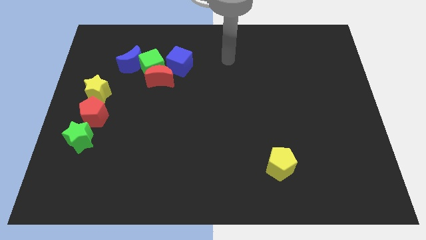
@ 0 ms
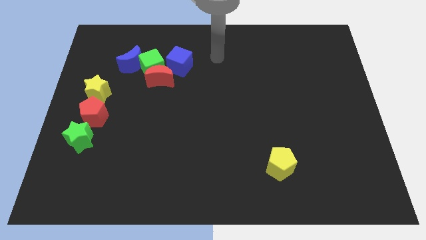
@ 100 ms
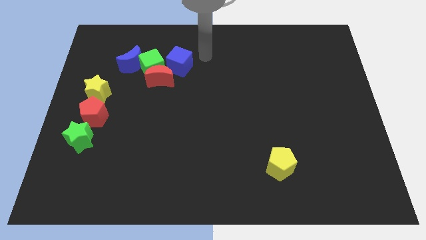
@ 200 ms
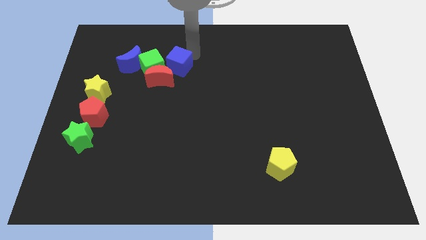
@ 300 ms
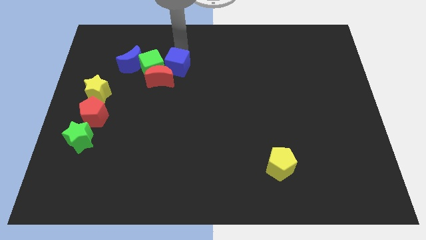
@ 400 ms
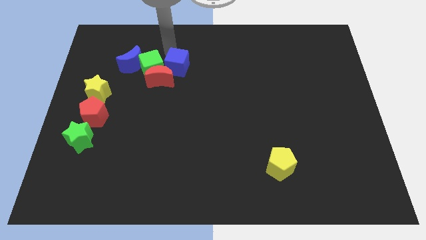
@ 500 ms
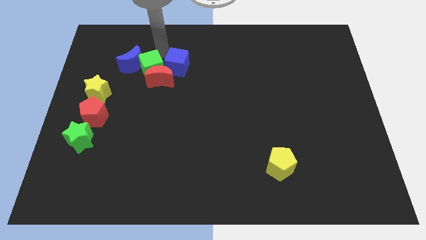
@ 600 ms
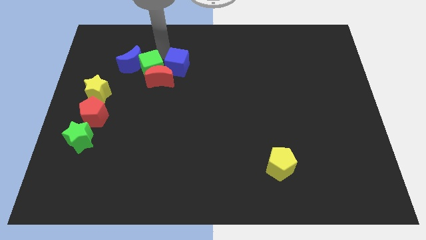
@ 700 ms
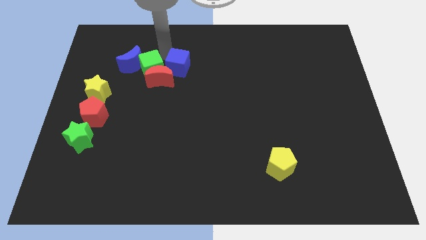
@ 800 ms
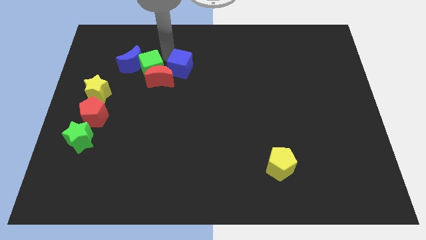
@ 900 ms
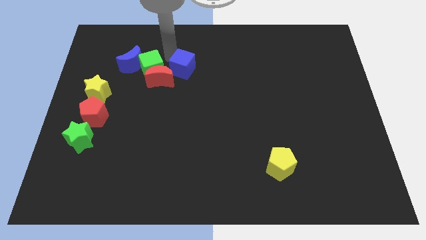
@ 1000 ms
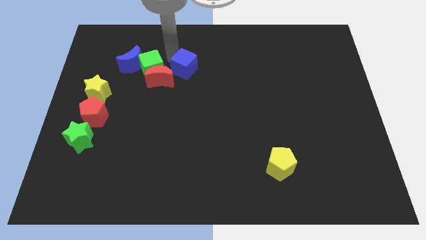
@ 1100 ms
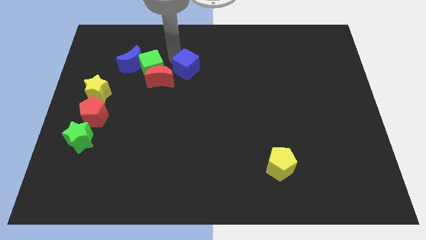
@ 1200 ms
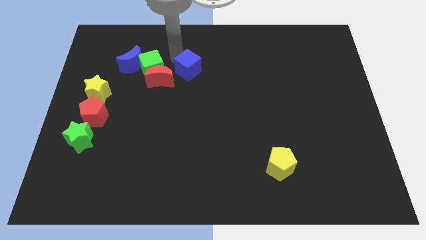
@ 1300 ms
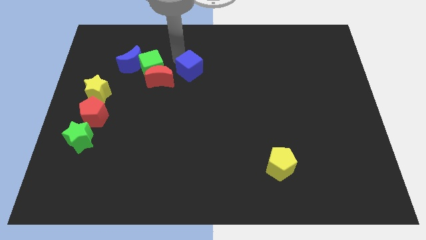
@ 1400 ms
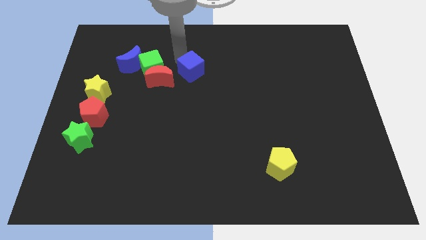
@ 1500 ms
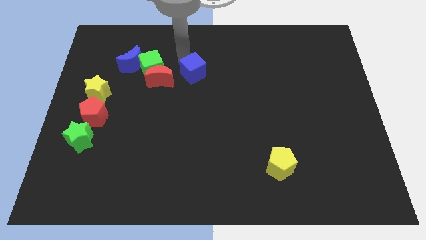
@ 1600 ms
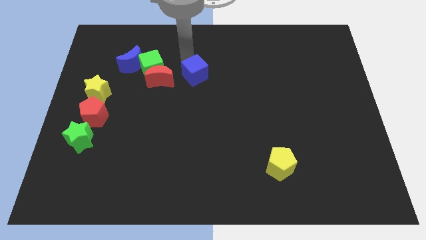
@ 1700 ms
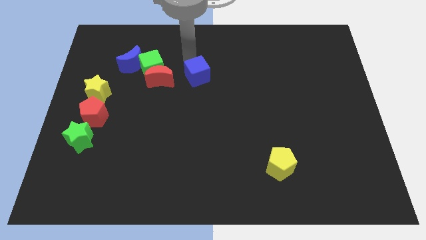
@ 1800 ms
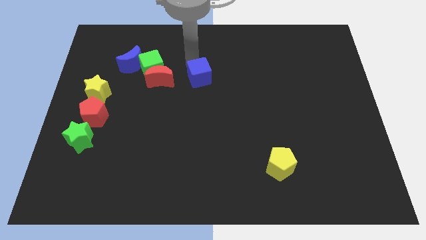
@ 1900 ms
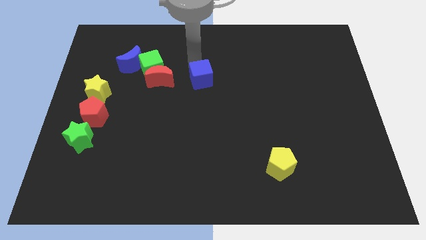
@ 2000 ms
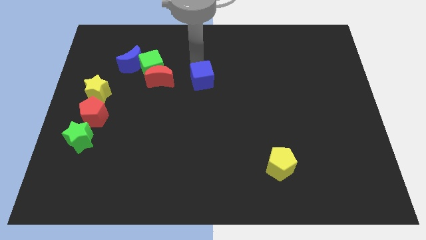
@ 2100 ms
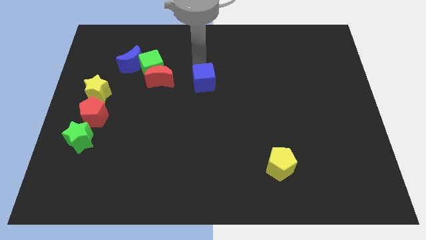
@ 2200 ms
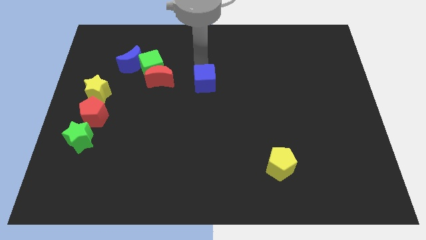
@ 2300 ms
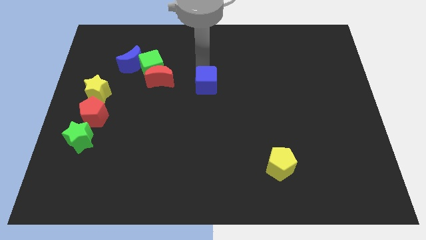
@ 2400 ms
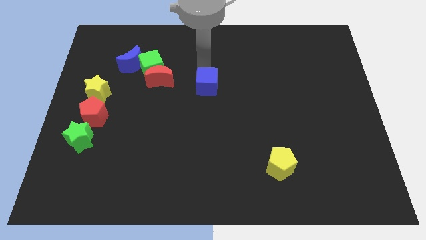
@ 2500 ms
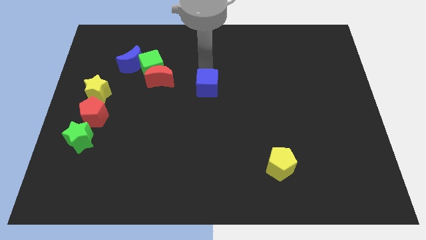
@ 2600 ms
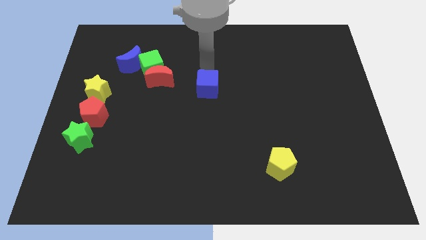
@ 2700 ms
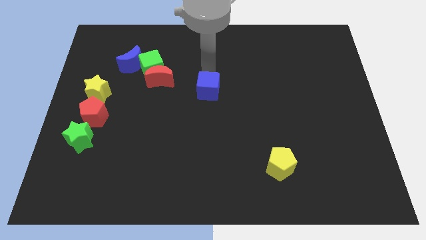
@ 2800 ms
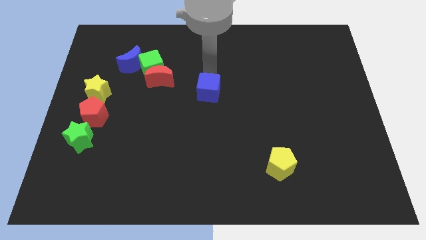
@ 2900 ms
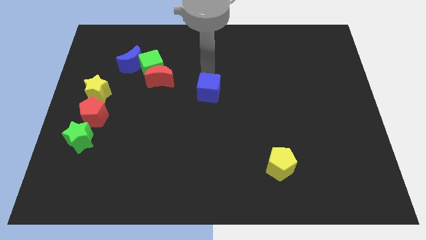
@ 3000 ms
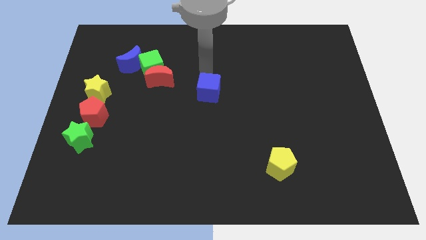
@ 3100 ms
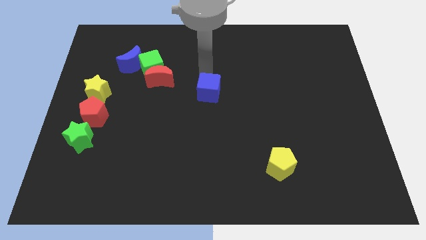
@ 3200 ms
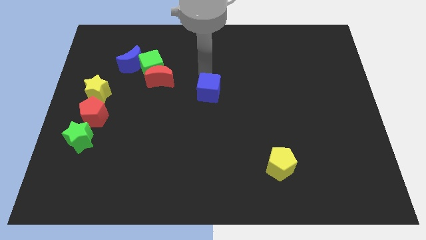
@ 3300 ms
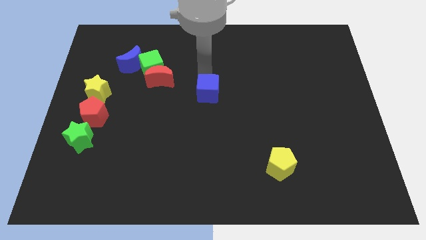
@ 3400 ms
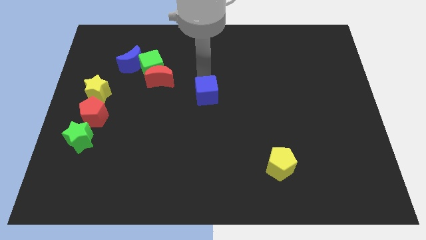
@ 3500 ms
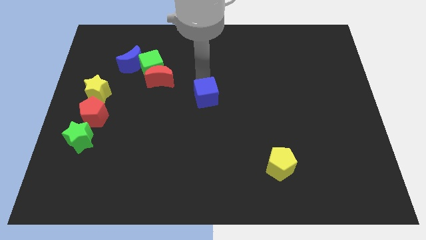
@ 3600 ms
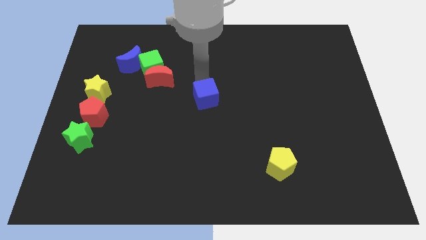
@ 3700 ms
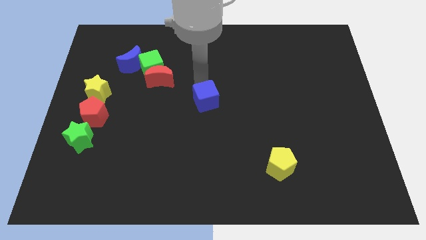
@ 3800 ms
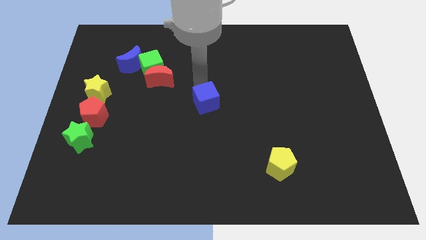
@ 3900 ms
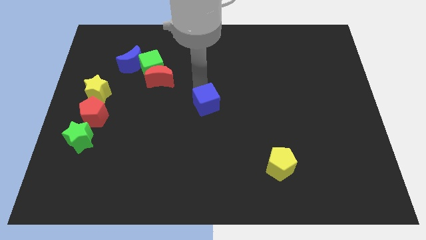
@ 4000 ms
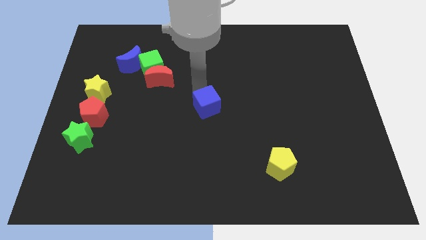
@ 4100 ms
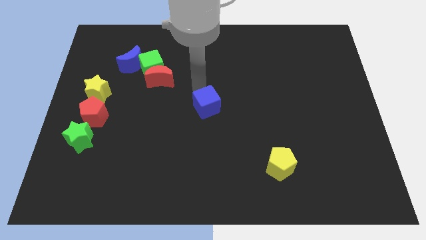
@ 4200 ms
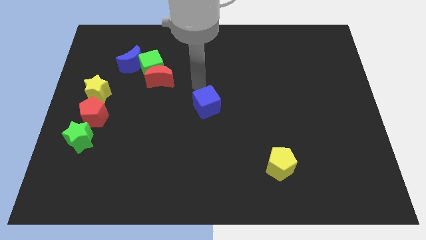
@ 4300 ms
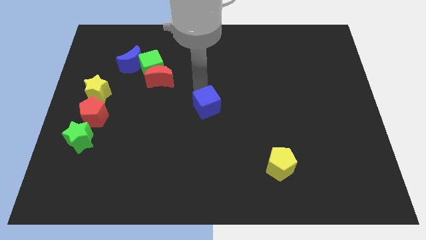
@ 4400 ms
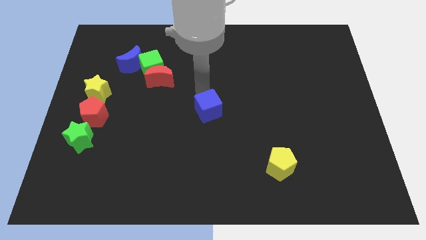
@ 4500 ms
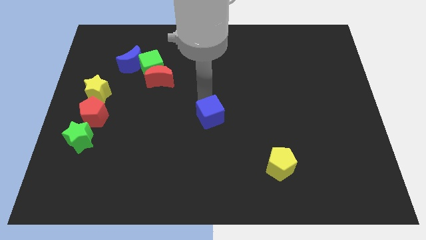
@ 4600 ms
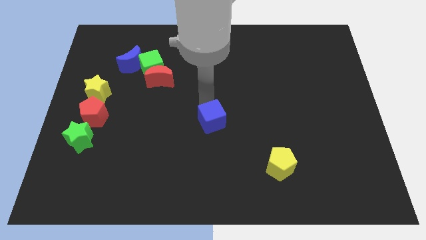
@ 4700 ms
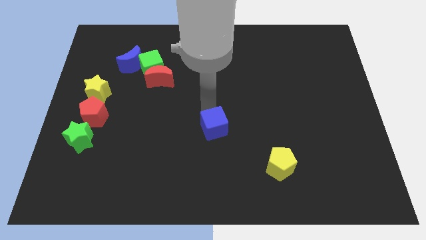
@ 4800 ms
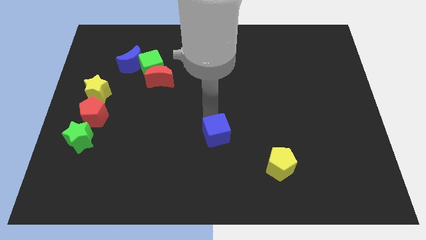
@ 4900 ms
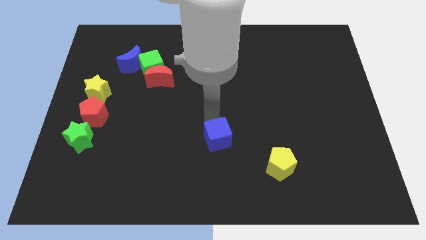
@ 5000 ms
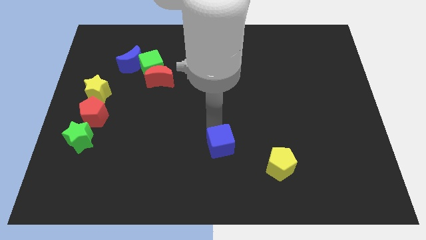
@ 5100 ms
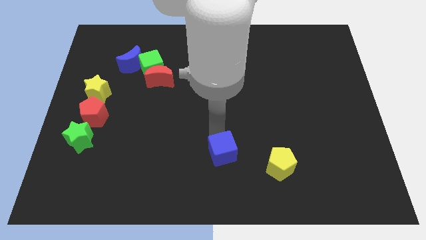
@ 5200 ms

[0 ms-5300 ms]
put the blue cube just left of the yellow pentagon

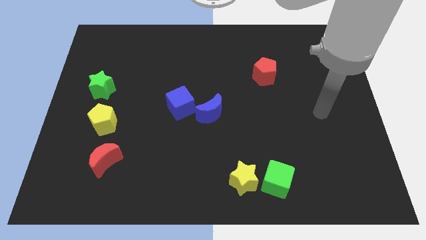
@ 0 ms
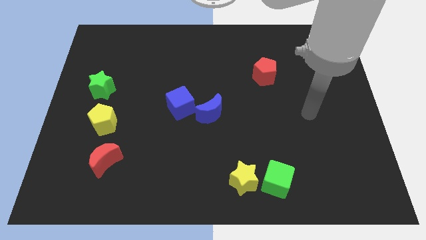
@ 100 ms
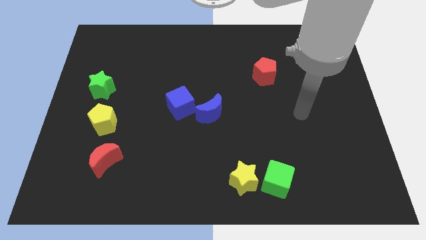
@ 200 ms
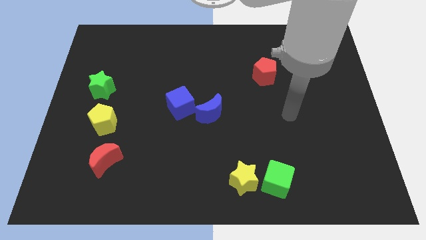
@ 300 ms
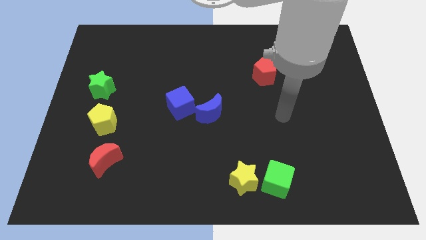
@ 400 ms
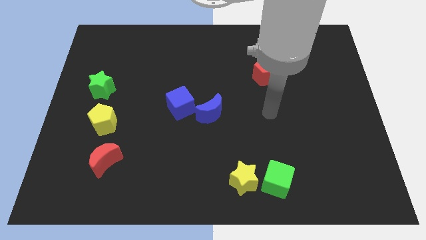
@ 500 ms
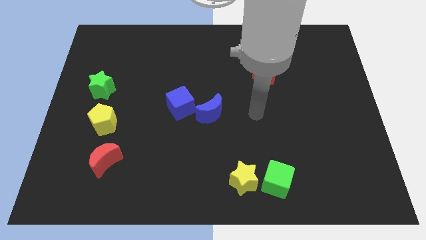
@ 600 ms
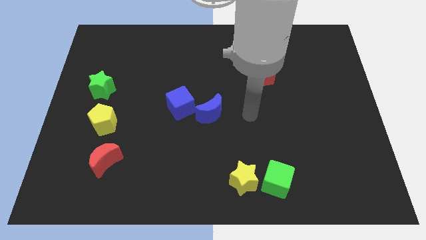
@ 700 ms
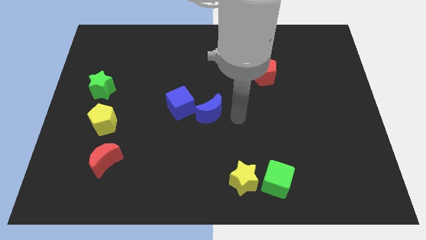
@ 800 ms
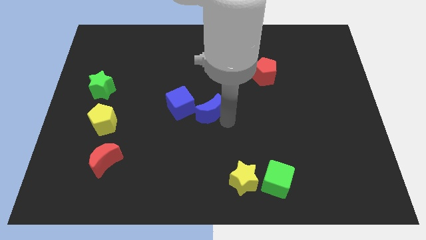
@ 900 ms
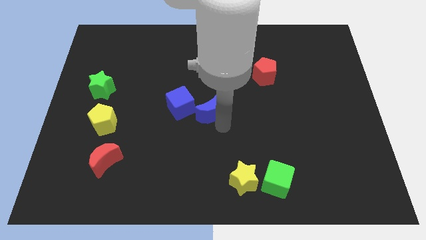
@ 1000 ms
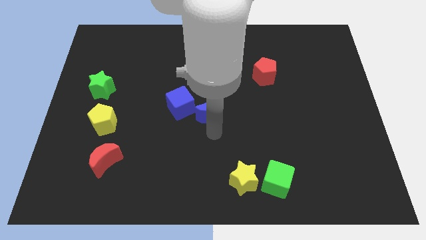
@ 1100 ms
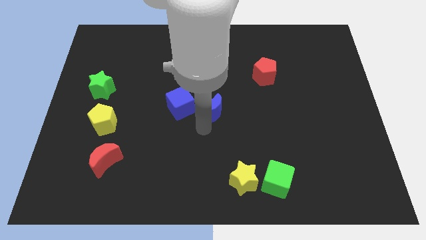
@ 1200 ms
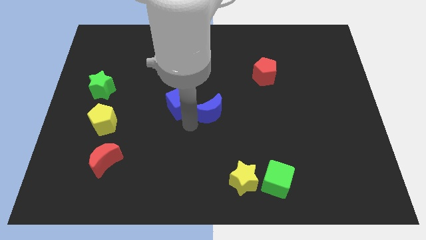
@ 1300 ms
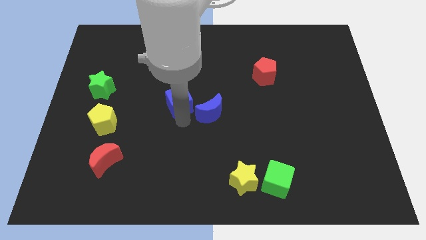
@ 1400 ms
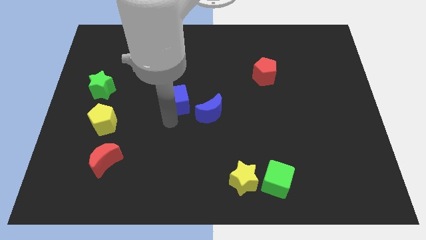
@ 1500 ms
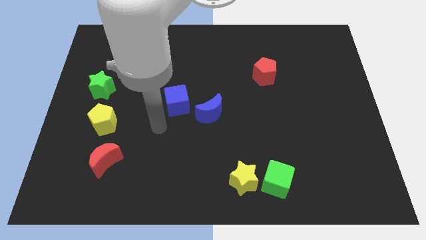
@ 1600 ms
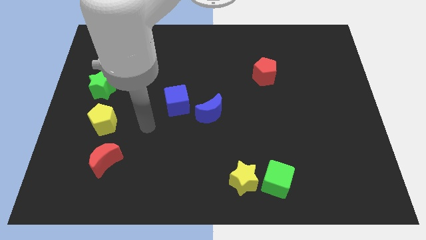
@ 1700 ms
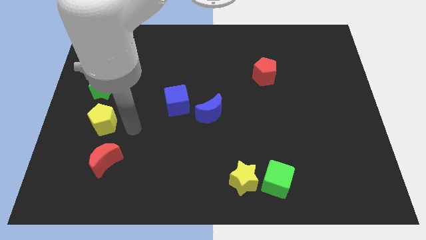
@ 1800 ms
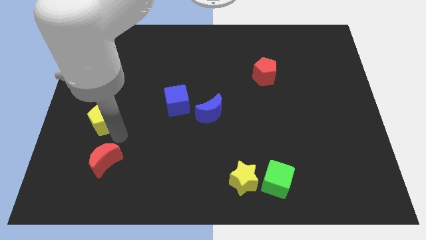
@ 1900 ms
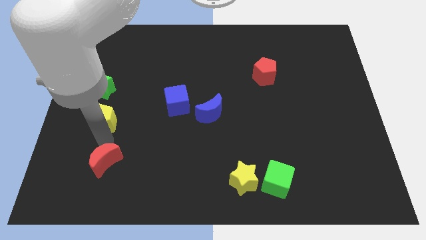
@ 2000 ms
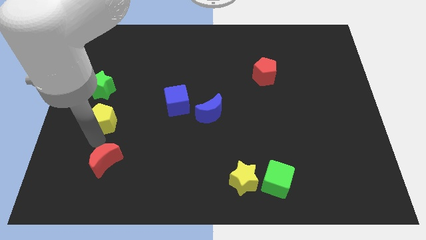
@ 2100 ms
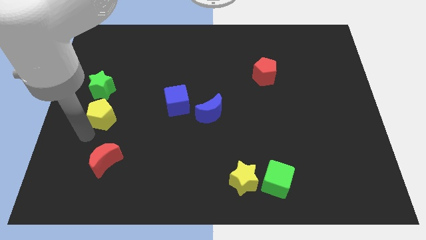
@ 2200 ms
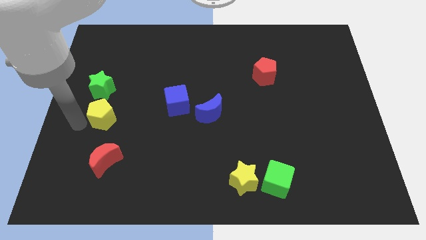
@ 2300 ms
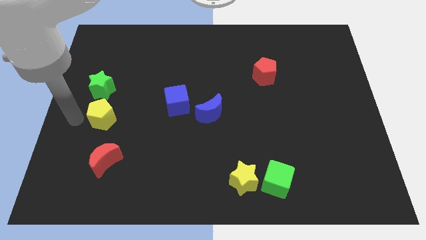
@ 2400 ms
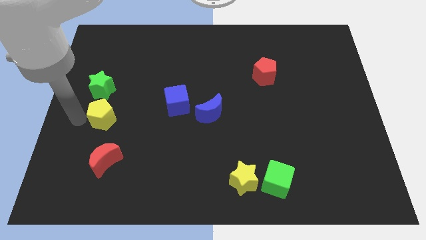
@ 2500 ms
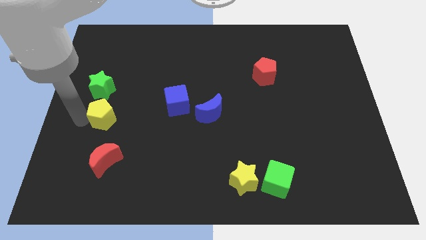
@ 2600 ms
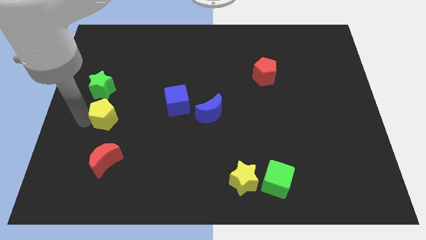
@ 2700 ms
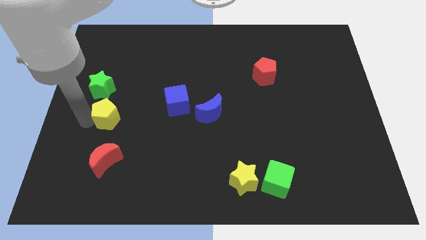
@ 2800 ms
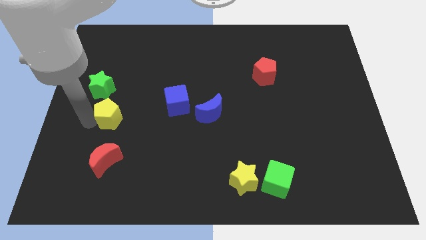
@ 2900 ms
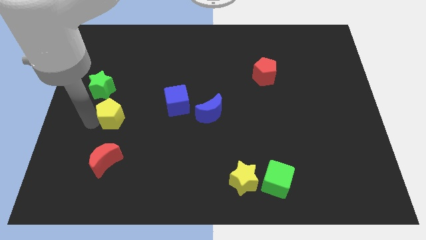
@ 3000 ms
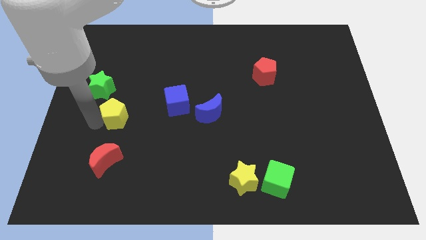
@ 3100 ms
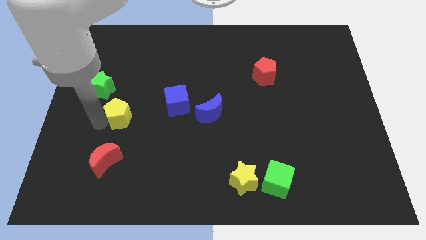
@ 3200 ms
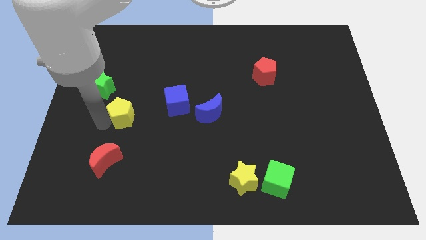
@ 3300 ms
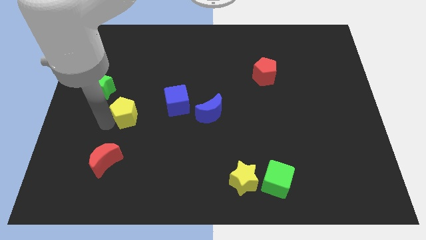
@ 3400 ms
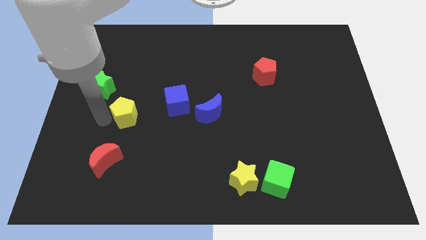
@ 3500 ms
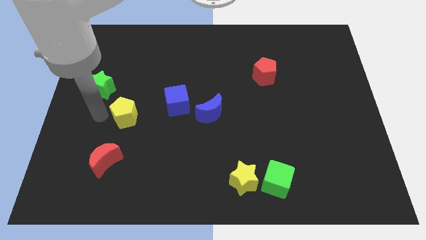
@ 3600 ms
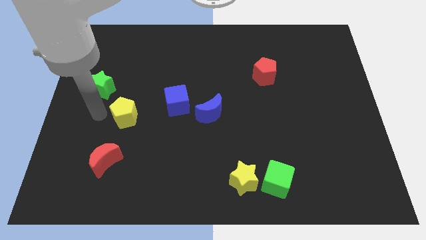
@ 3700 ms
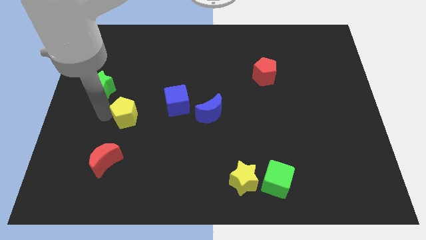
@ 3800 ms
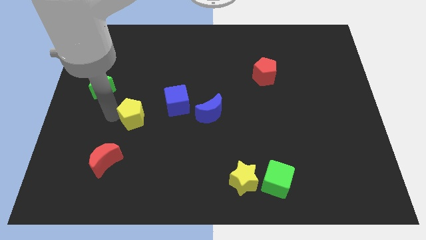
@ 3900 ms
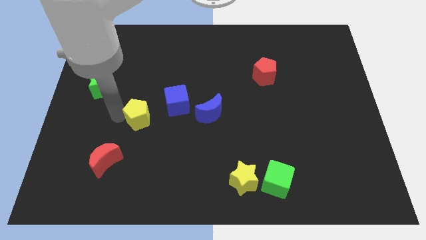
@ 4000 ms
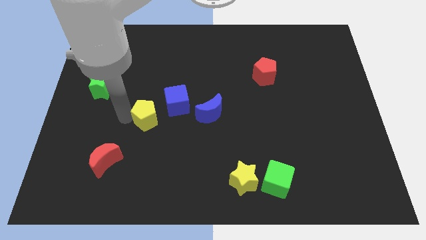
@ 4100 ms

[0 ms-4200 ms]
slide the yellow pentagon left of the blue moon
